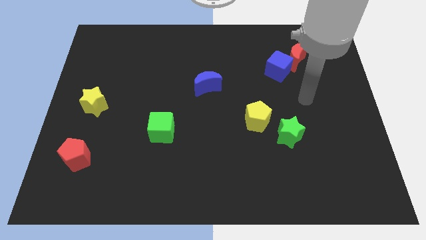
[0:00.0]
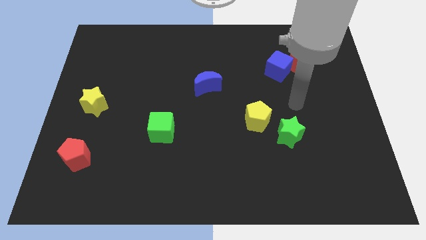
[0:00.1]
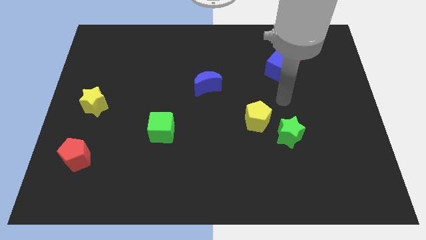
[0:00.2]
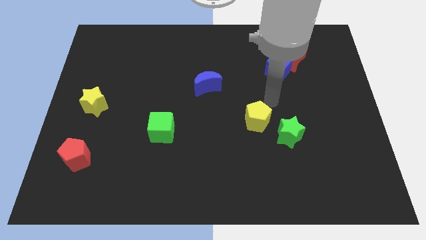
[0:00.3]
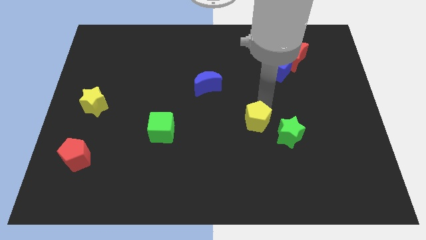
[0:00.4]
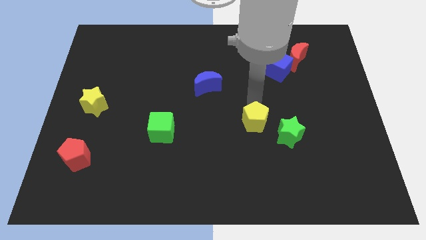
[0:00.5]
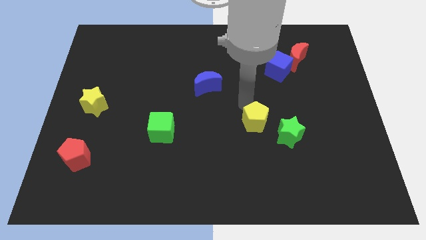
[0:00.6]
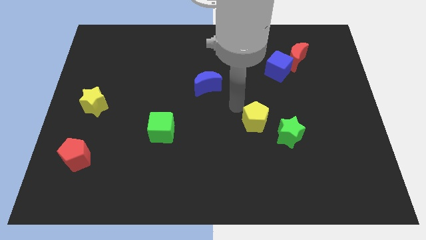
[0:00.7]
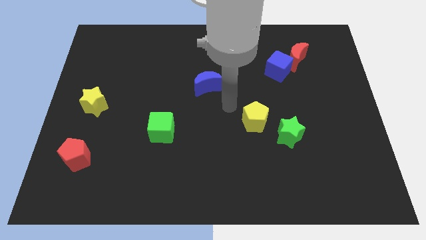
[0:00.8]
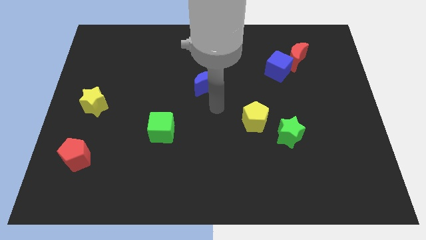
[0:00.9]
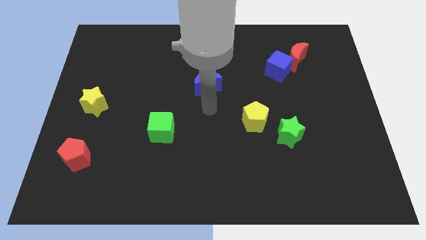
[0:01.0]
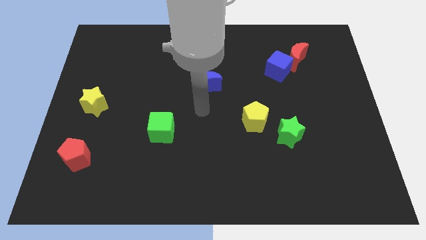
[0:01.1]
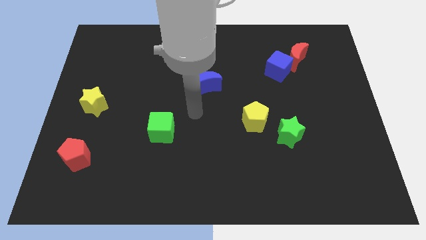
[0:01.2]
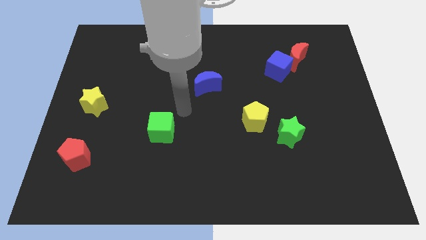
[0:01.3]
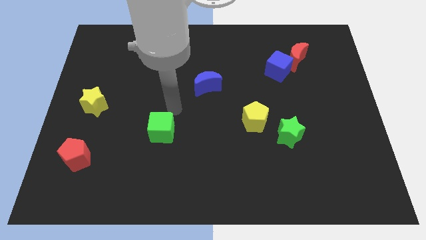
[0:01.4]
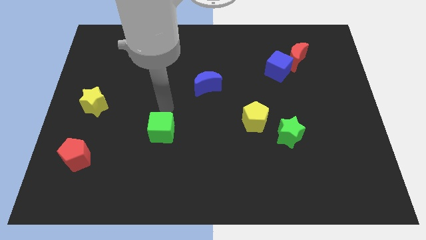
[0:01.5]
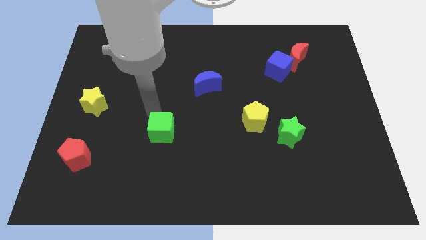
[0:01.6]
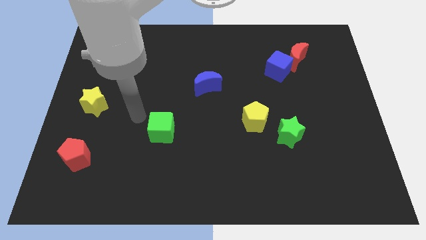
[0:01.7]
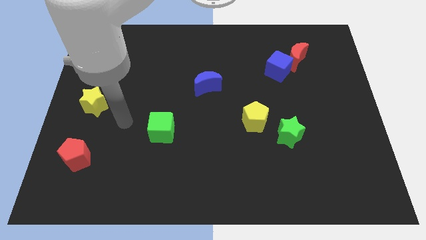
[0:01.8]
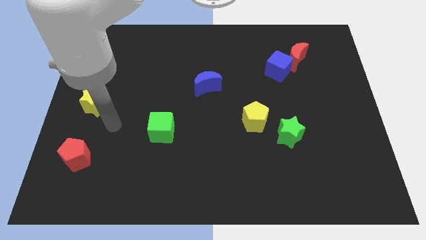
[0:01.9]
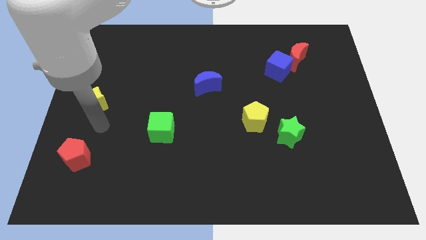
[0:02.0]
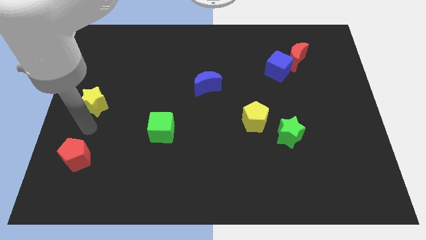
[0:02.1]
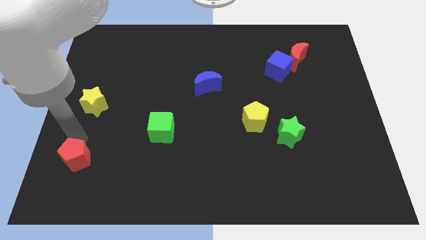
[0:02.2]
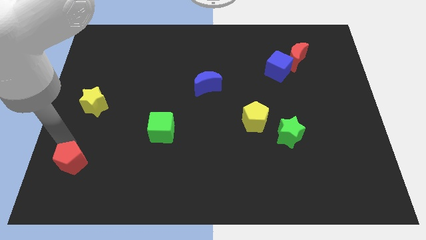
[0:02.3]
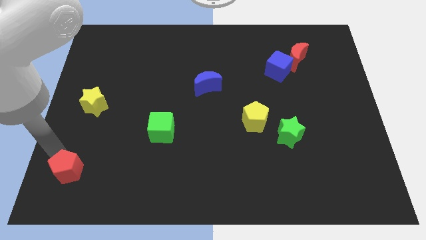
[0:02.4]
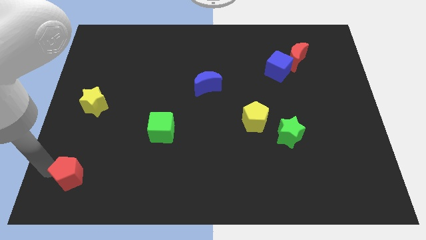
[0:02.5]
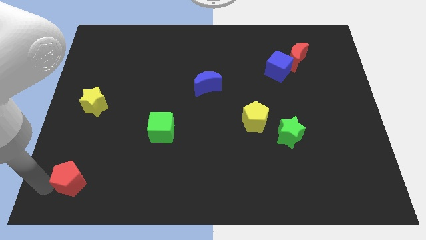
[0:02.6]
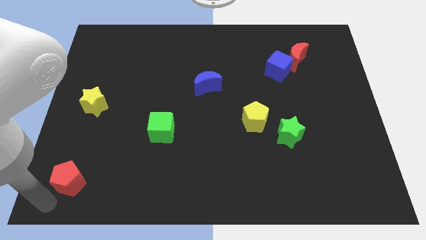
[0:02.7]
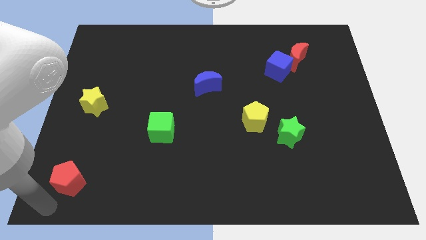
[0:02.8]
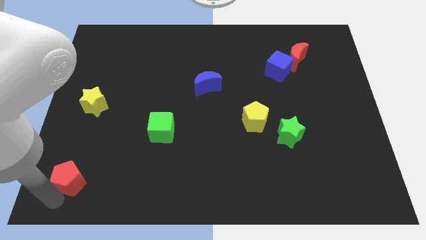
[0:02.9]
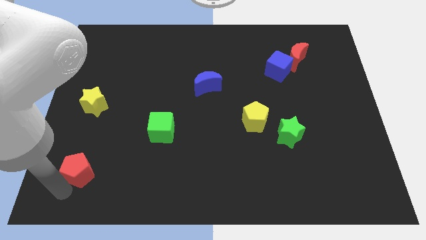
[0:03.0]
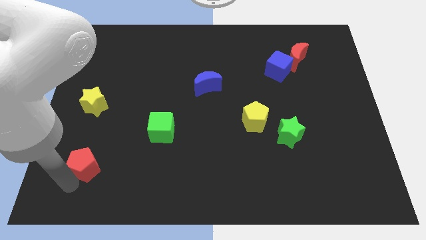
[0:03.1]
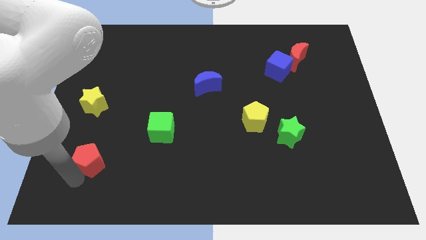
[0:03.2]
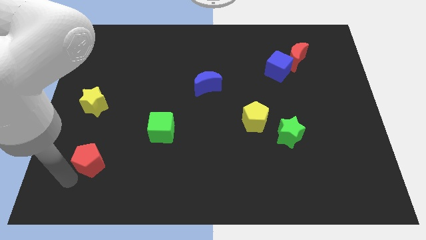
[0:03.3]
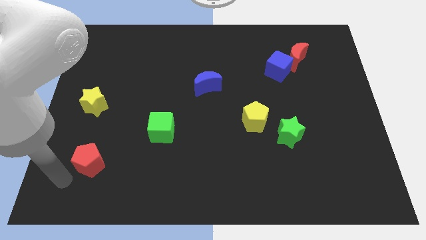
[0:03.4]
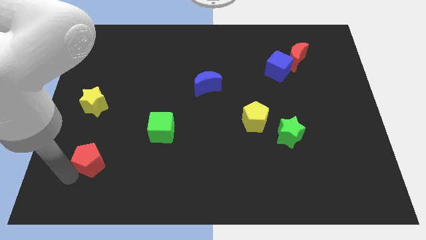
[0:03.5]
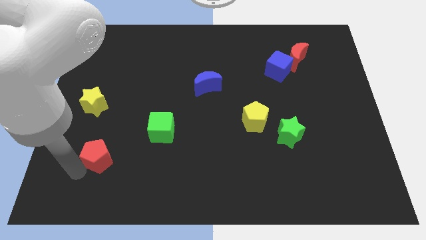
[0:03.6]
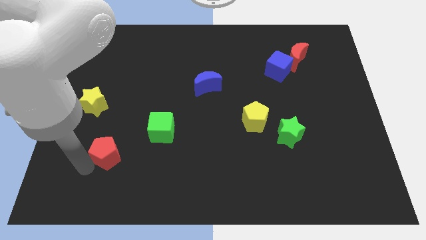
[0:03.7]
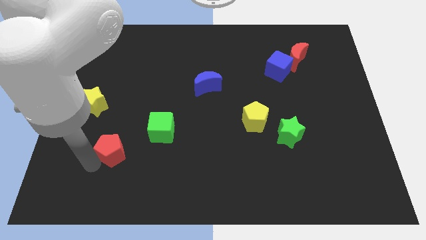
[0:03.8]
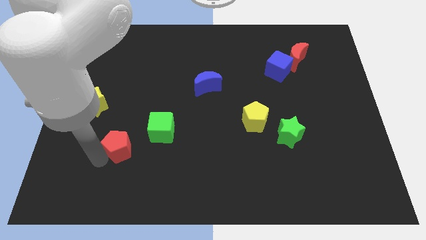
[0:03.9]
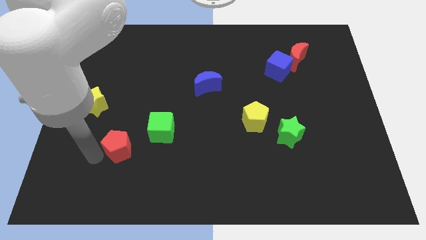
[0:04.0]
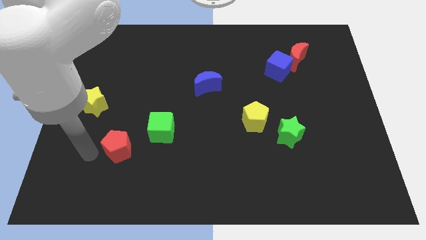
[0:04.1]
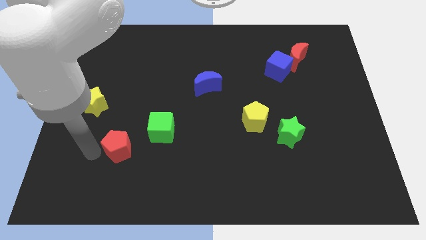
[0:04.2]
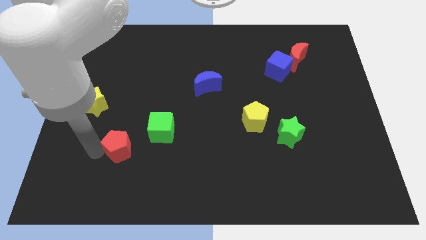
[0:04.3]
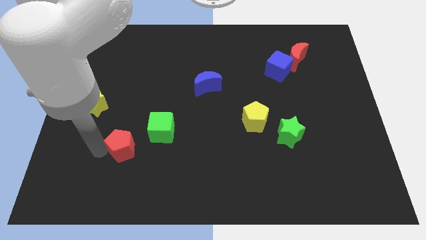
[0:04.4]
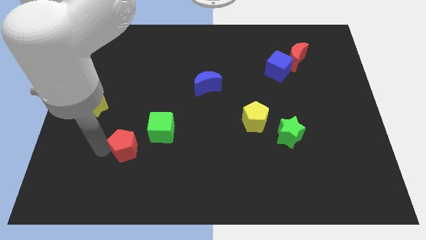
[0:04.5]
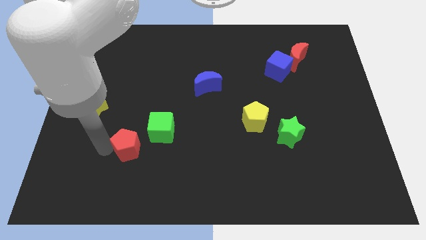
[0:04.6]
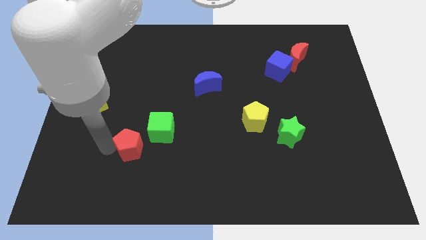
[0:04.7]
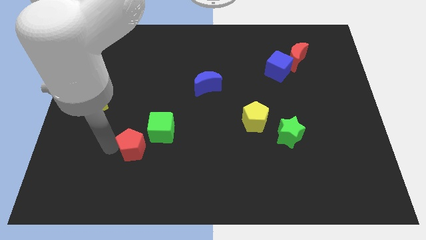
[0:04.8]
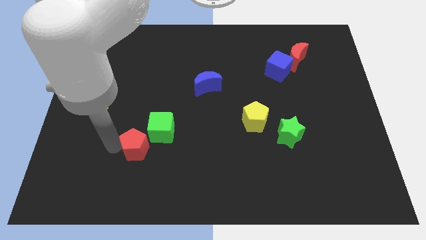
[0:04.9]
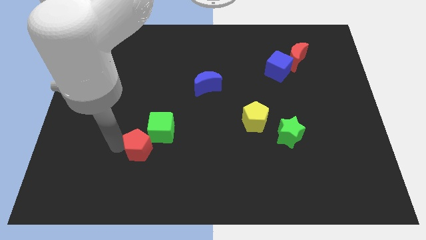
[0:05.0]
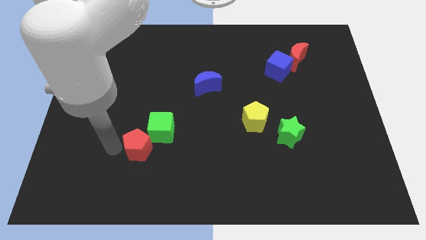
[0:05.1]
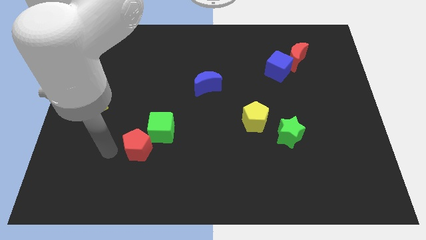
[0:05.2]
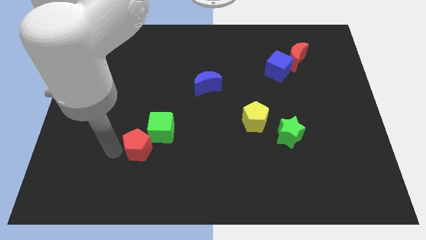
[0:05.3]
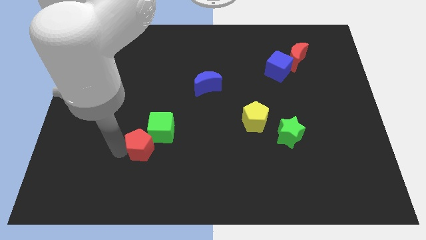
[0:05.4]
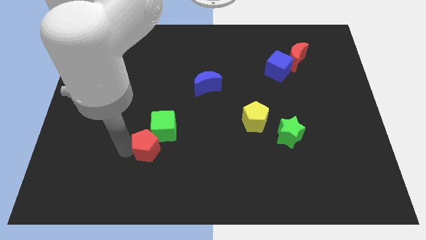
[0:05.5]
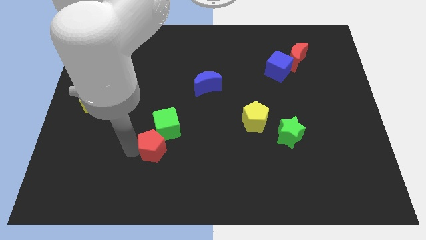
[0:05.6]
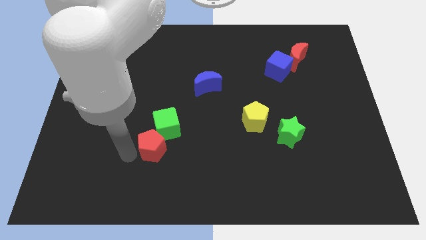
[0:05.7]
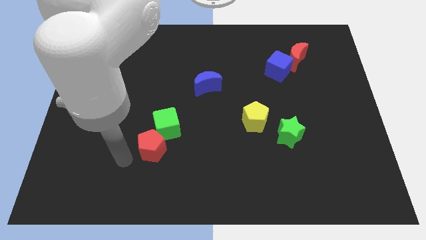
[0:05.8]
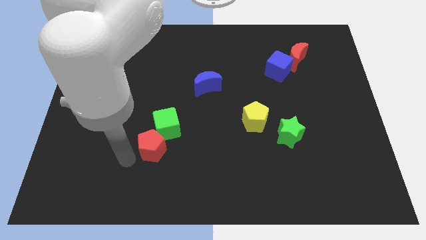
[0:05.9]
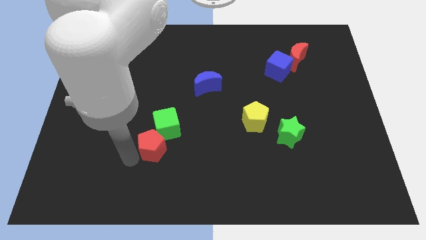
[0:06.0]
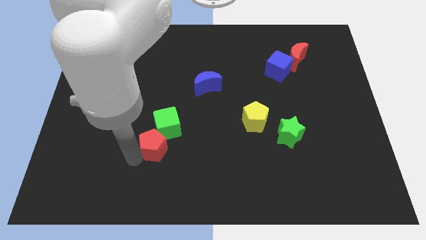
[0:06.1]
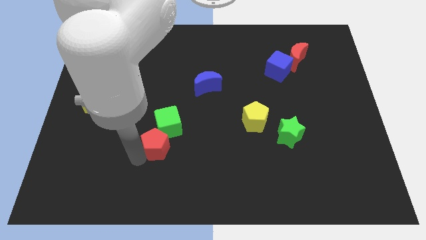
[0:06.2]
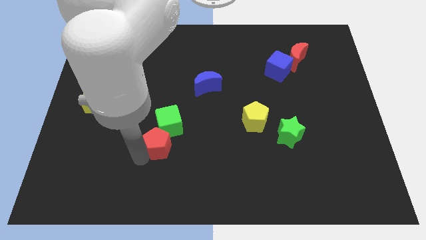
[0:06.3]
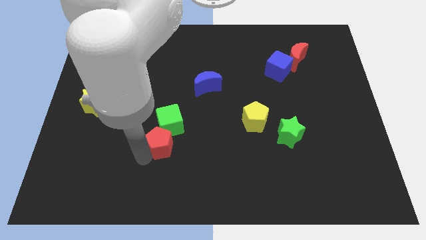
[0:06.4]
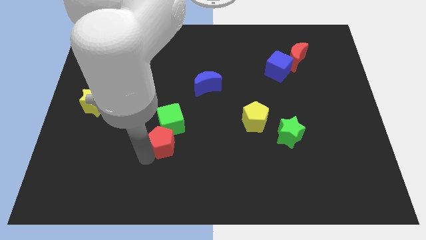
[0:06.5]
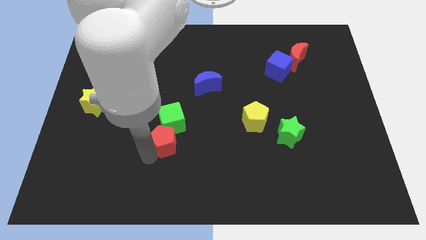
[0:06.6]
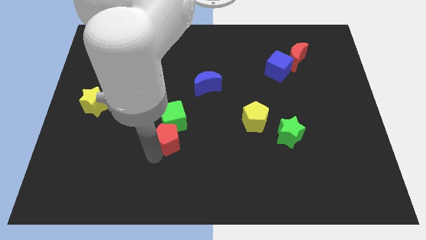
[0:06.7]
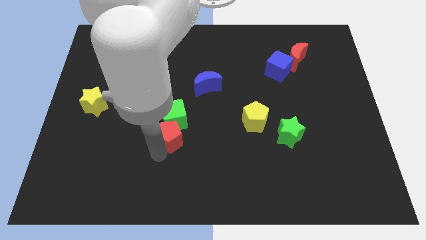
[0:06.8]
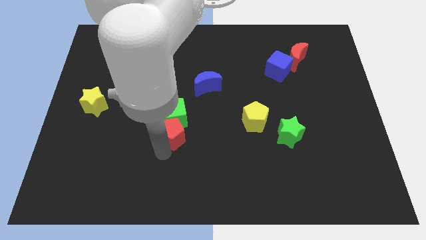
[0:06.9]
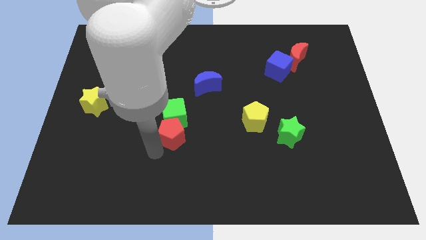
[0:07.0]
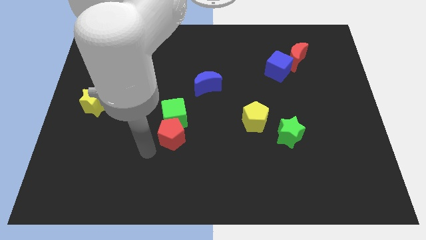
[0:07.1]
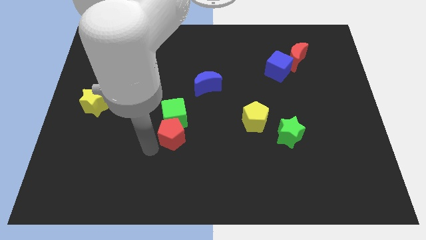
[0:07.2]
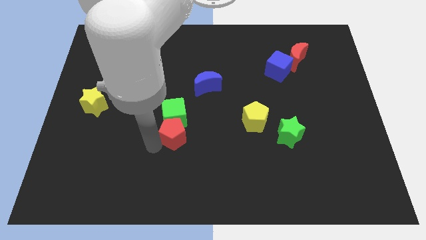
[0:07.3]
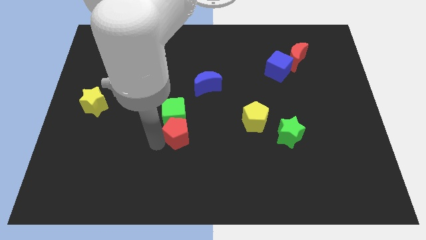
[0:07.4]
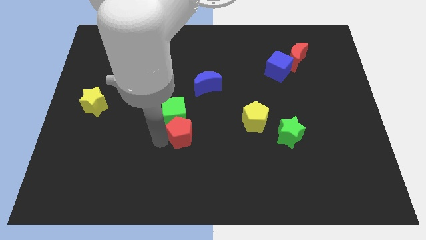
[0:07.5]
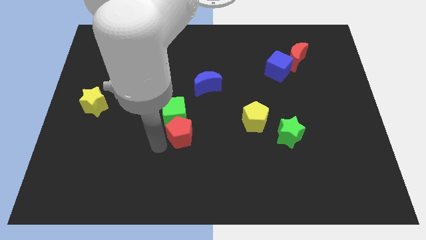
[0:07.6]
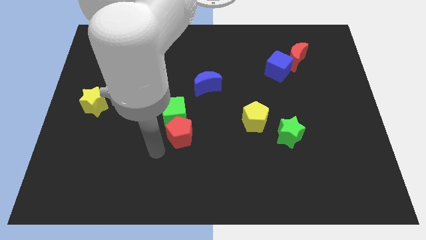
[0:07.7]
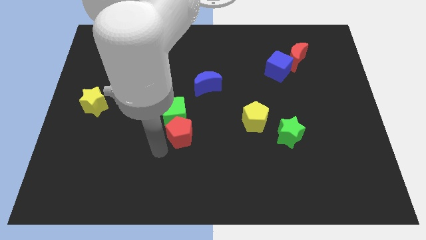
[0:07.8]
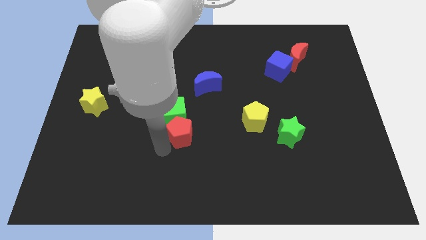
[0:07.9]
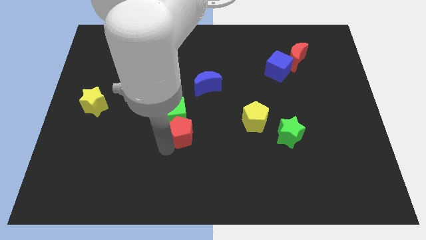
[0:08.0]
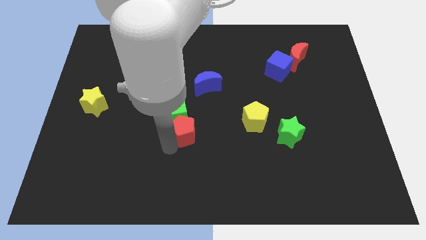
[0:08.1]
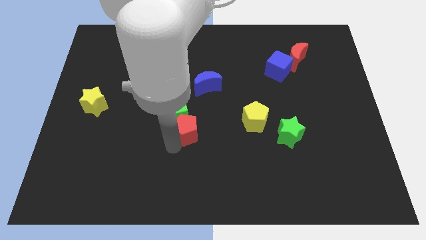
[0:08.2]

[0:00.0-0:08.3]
slide the red pentagon below the blue moon
